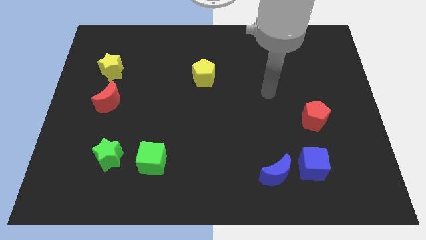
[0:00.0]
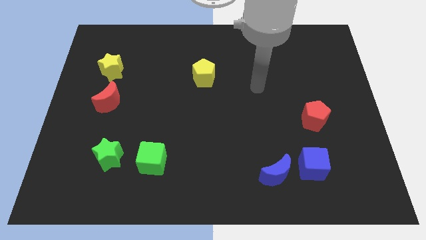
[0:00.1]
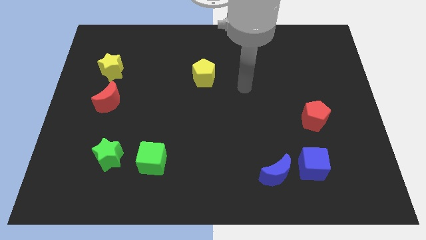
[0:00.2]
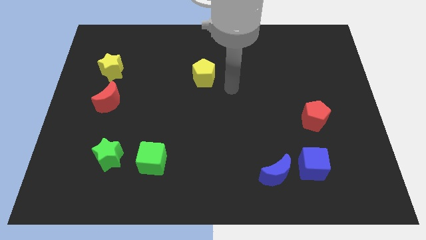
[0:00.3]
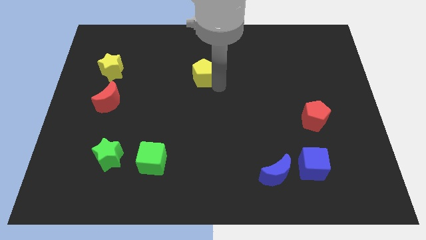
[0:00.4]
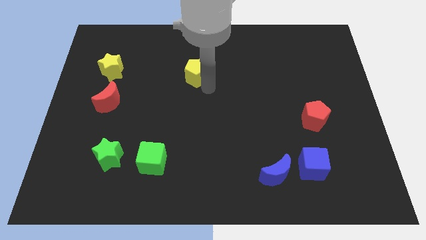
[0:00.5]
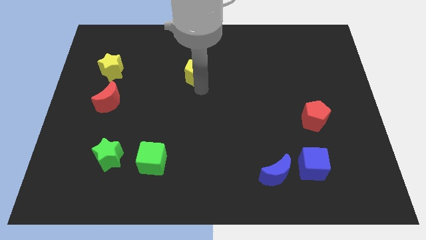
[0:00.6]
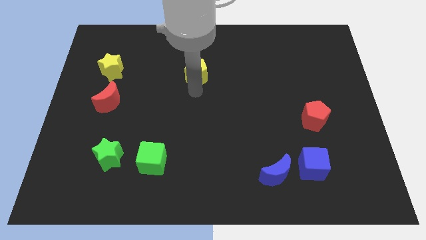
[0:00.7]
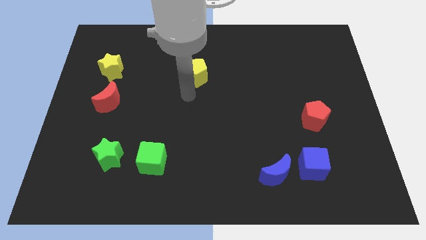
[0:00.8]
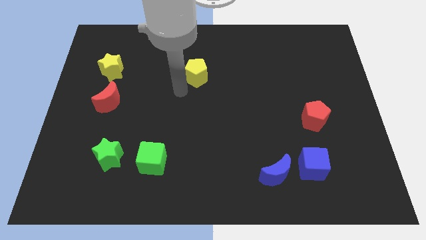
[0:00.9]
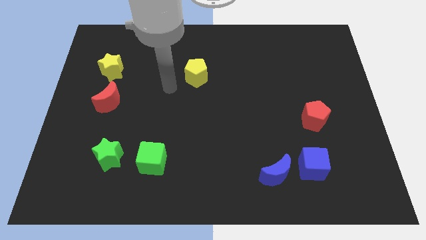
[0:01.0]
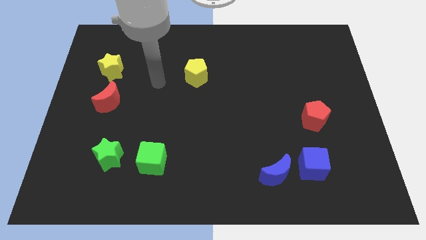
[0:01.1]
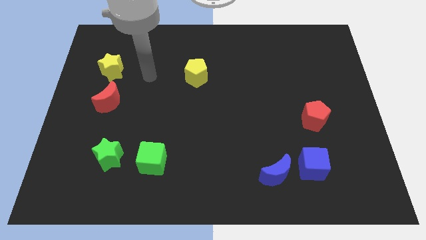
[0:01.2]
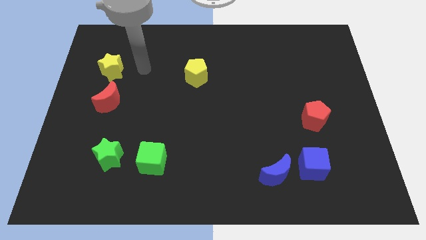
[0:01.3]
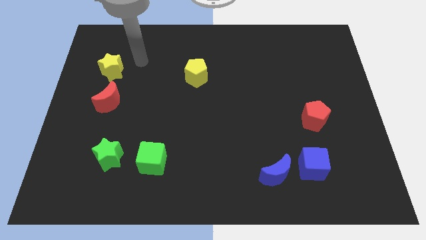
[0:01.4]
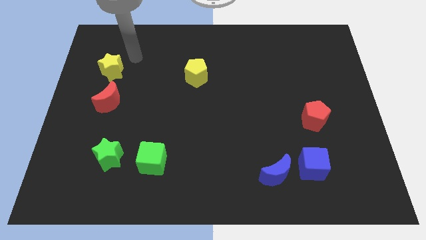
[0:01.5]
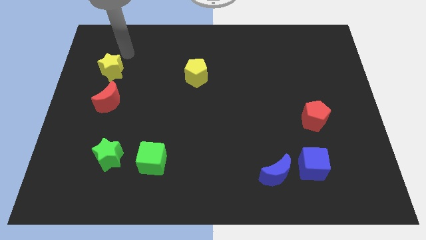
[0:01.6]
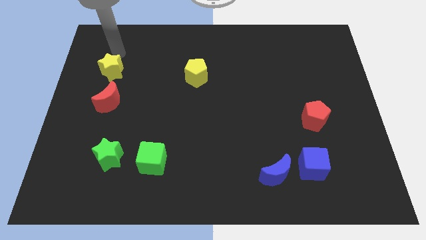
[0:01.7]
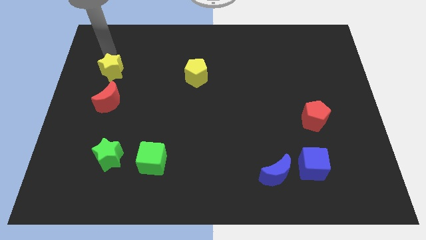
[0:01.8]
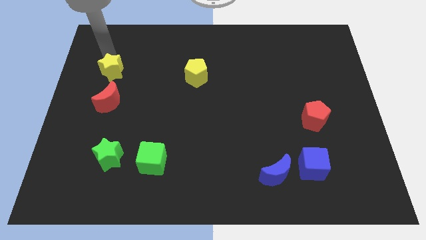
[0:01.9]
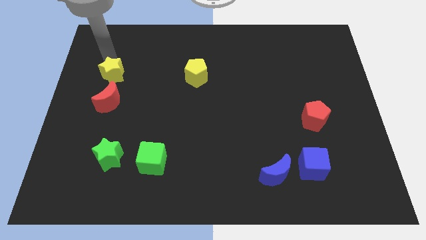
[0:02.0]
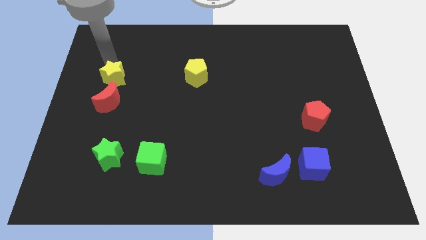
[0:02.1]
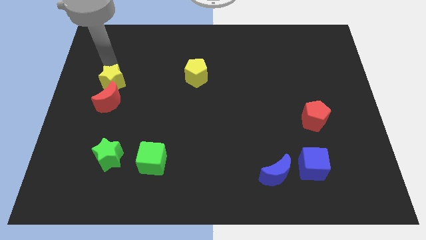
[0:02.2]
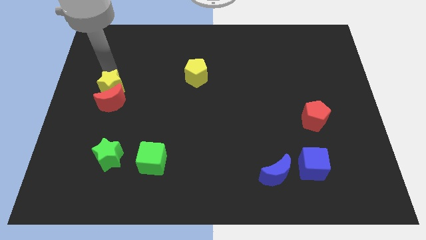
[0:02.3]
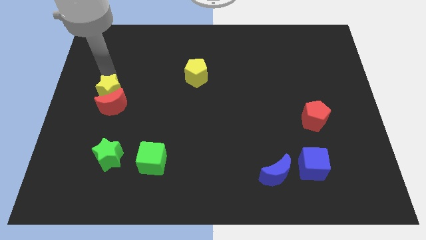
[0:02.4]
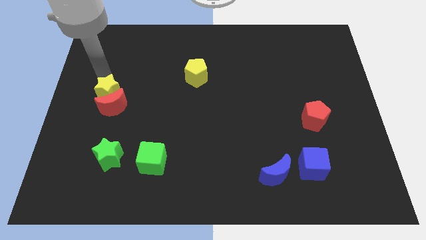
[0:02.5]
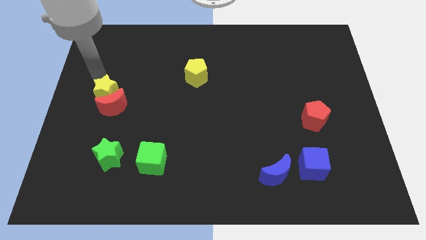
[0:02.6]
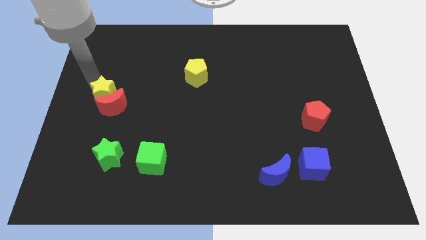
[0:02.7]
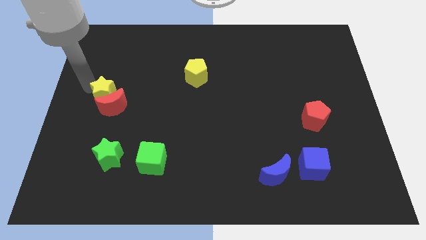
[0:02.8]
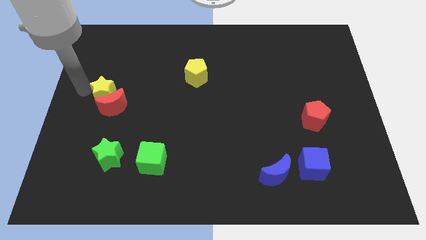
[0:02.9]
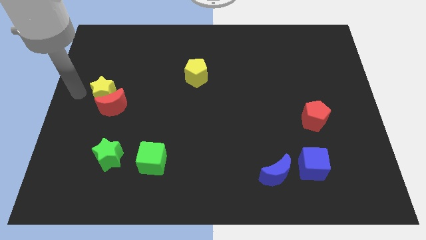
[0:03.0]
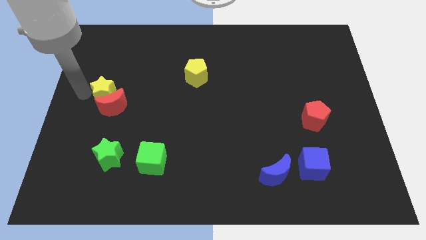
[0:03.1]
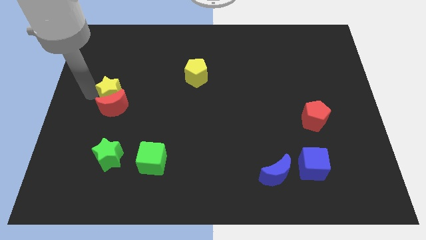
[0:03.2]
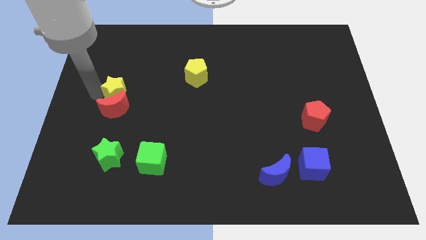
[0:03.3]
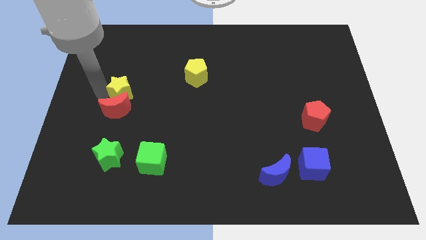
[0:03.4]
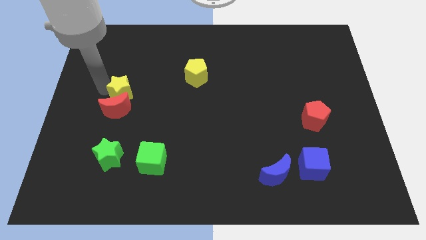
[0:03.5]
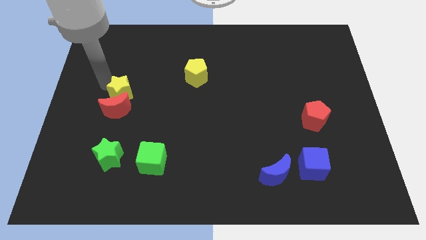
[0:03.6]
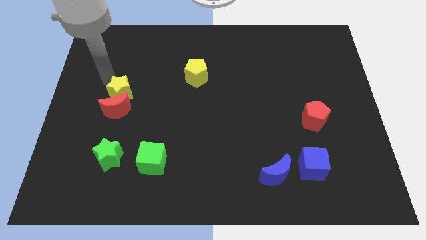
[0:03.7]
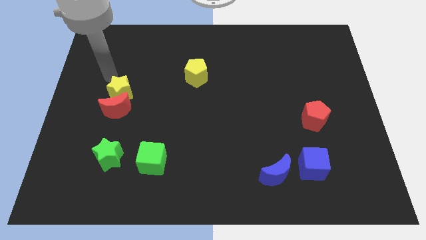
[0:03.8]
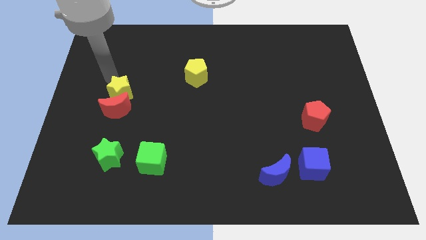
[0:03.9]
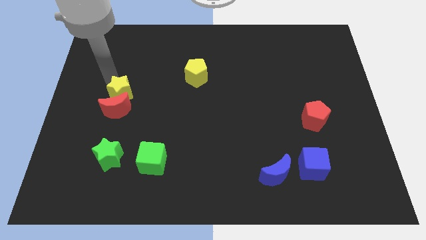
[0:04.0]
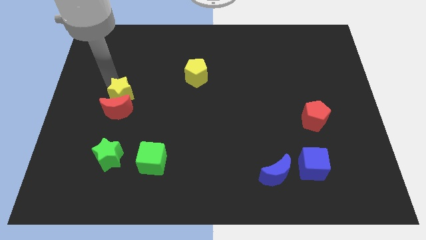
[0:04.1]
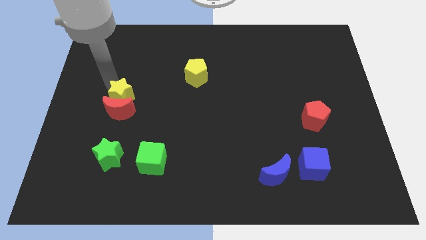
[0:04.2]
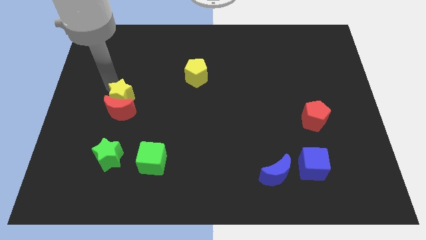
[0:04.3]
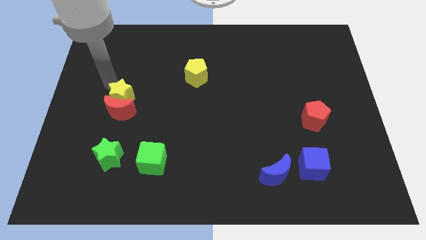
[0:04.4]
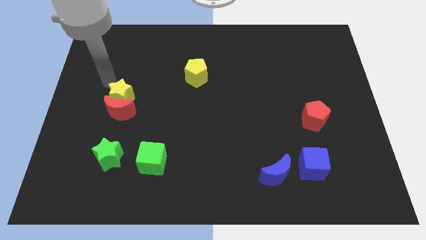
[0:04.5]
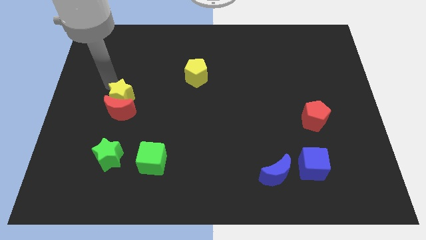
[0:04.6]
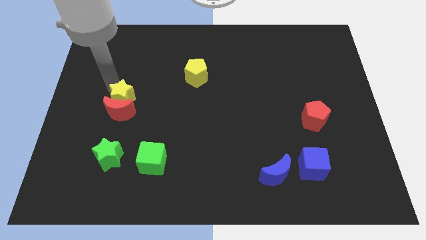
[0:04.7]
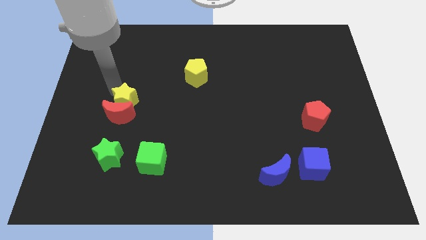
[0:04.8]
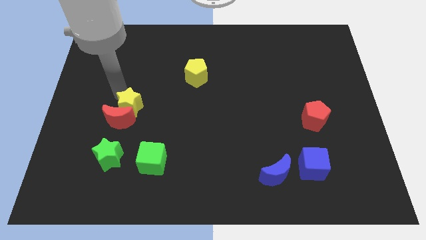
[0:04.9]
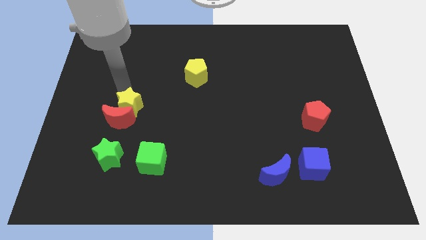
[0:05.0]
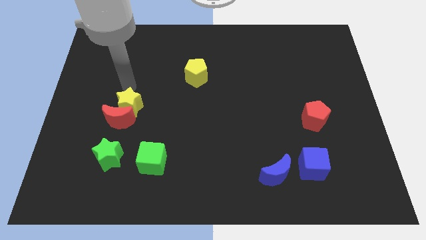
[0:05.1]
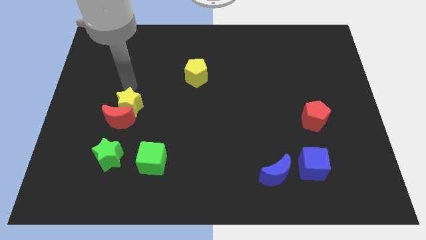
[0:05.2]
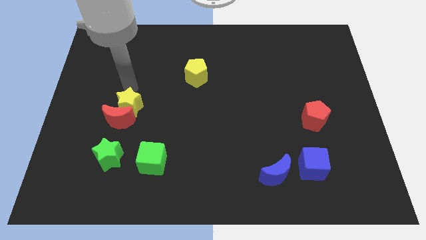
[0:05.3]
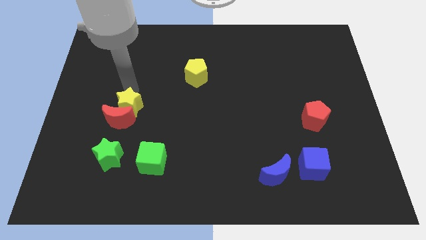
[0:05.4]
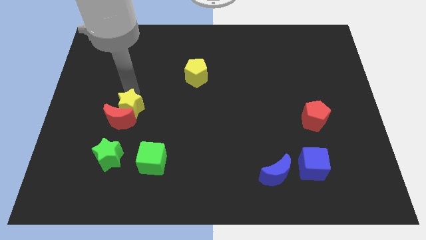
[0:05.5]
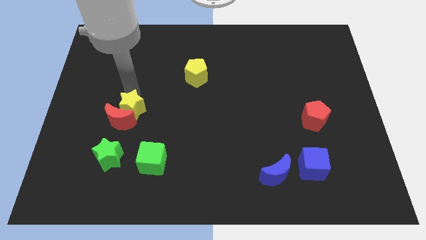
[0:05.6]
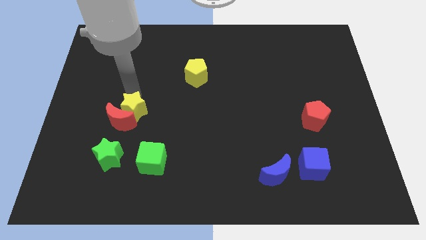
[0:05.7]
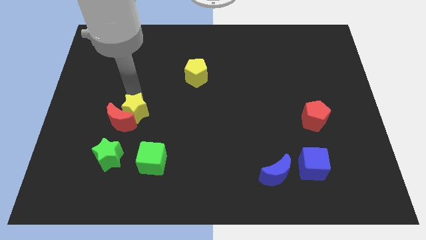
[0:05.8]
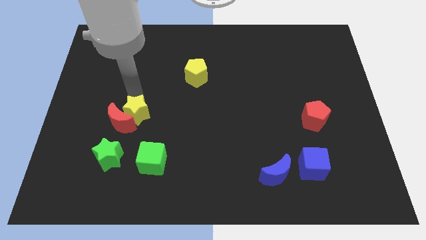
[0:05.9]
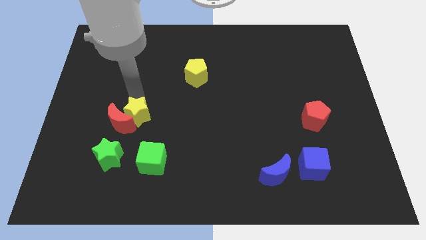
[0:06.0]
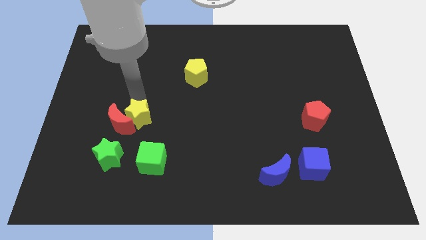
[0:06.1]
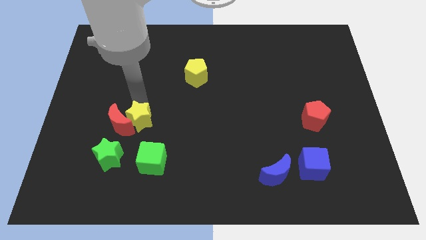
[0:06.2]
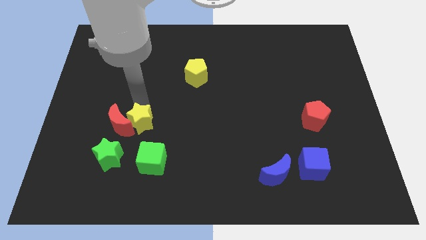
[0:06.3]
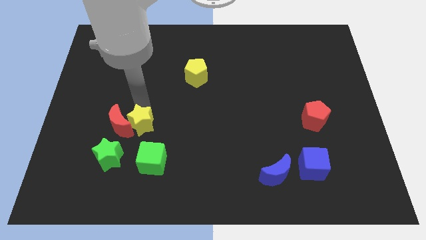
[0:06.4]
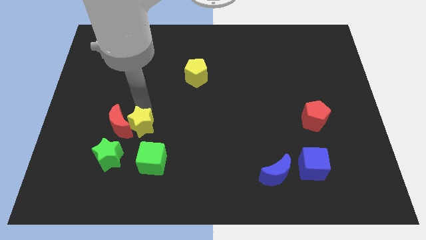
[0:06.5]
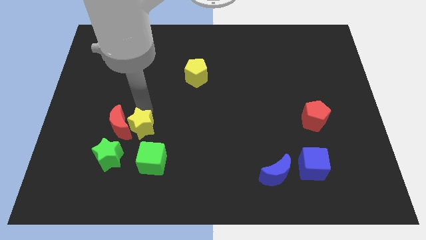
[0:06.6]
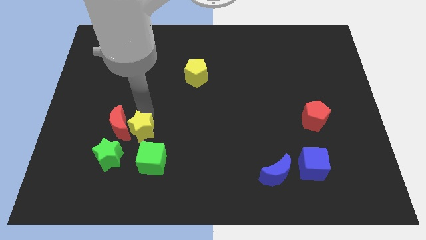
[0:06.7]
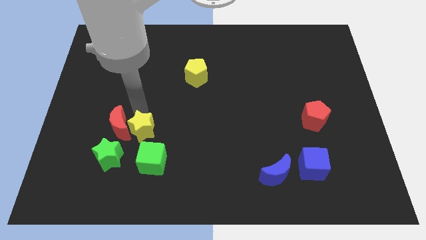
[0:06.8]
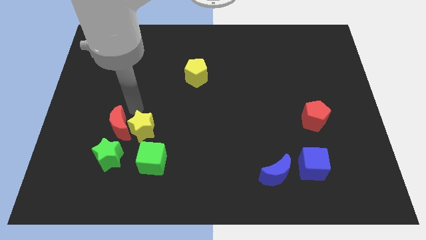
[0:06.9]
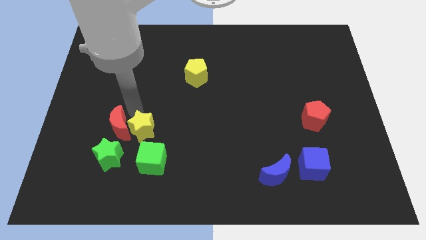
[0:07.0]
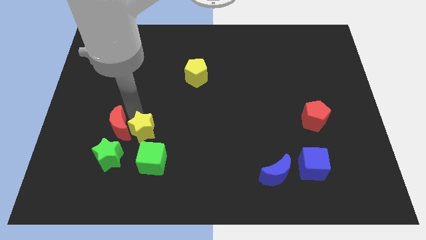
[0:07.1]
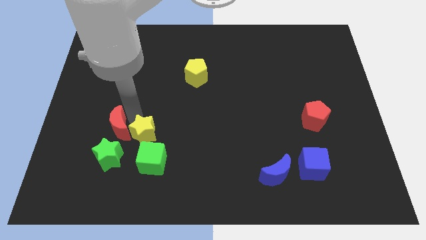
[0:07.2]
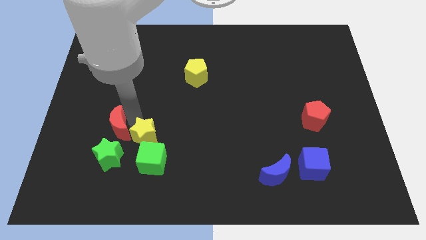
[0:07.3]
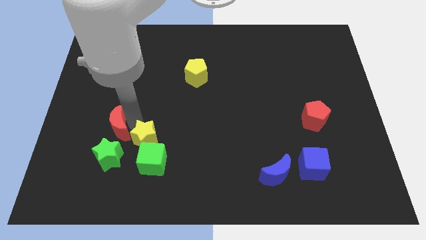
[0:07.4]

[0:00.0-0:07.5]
push the yellow star next to the green cube

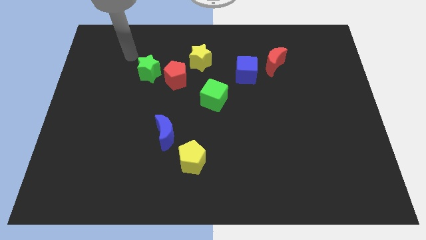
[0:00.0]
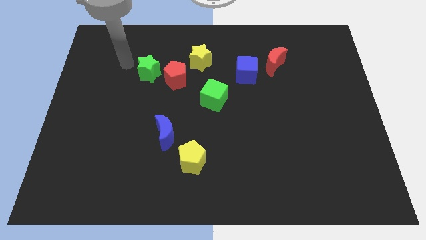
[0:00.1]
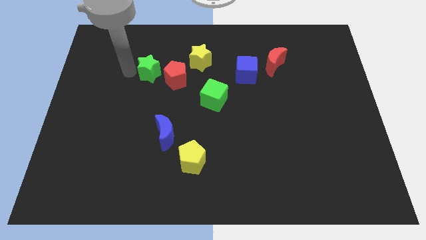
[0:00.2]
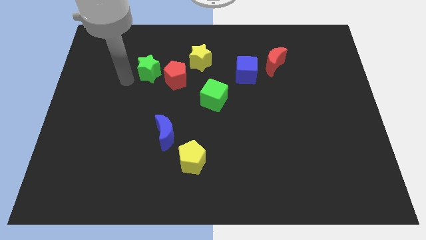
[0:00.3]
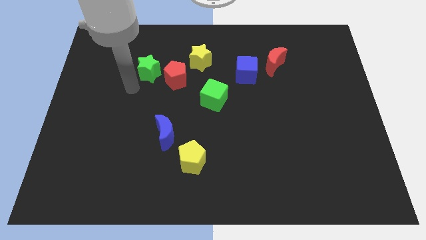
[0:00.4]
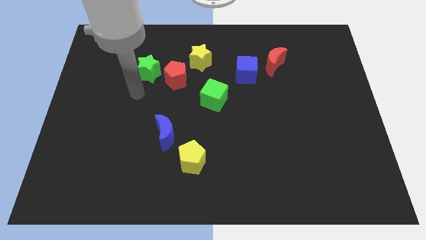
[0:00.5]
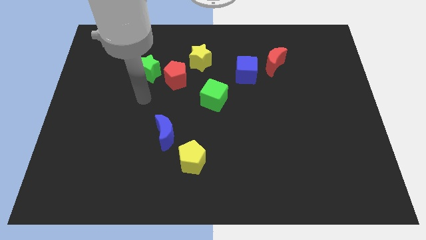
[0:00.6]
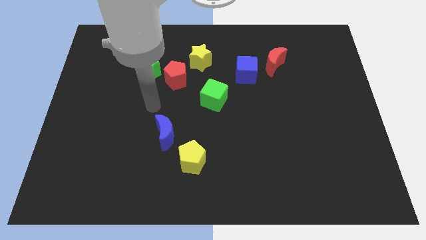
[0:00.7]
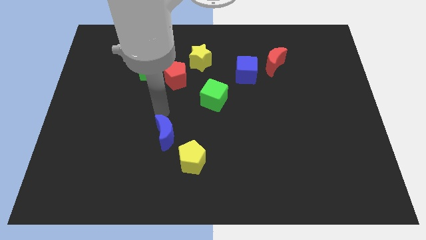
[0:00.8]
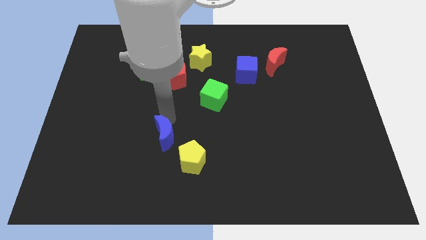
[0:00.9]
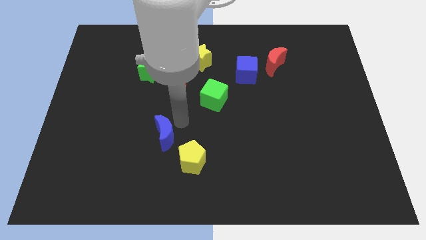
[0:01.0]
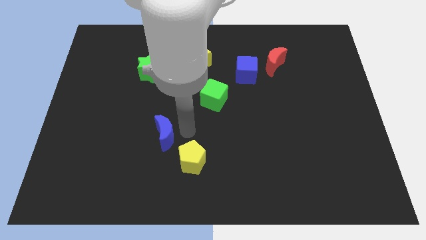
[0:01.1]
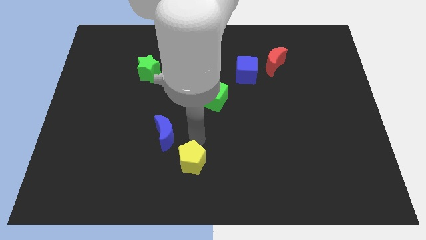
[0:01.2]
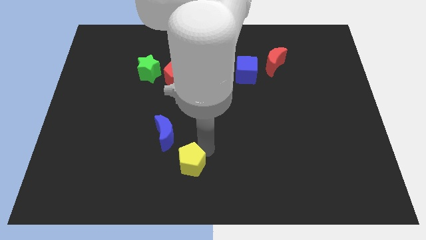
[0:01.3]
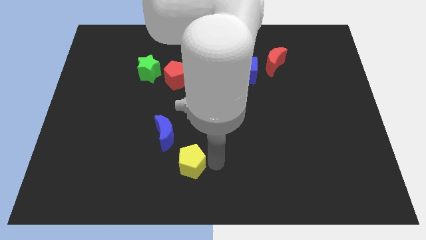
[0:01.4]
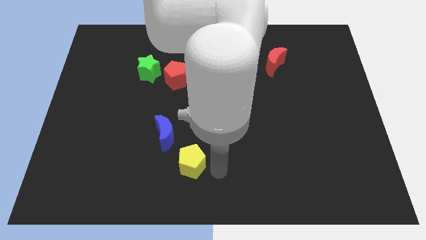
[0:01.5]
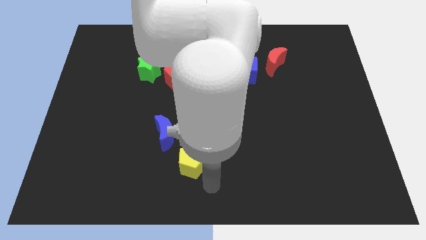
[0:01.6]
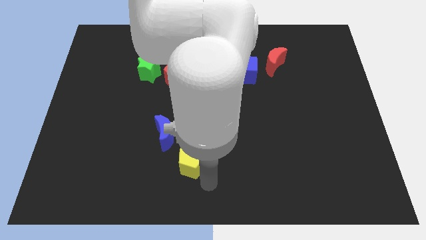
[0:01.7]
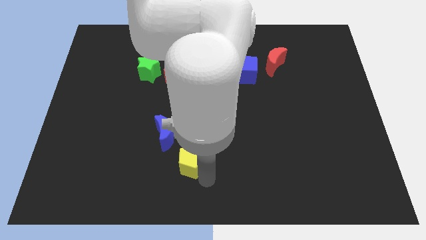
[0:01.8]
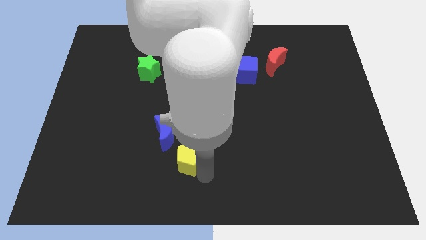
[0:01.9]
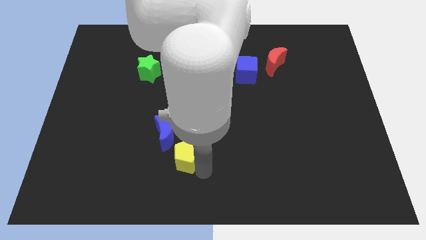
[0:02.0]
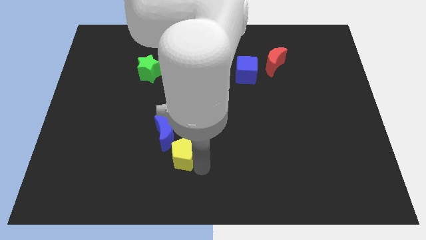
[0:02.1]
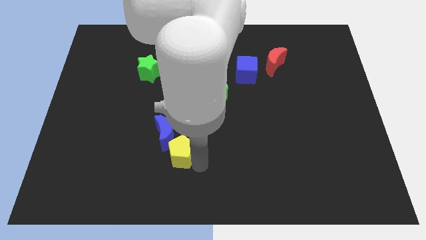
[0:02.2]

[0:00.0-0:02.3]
push the yellow pentagon next to the blue moon
